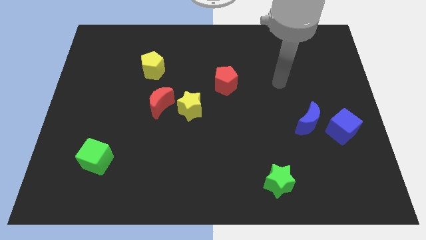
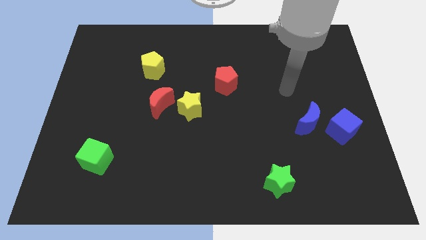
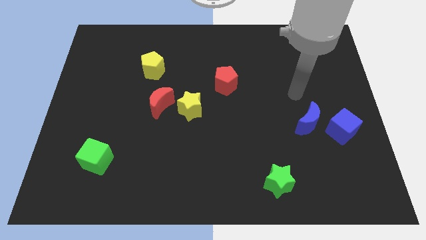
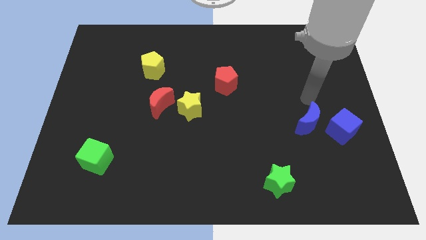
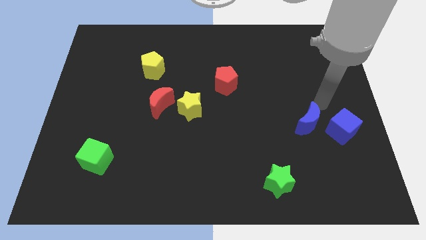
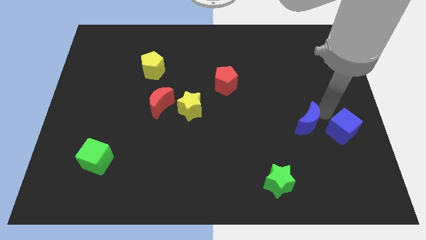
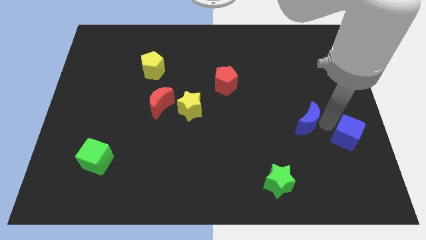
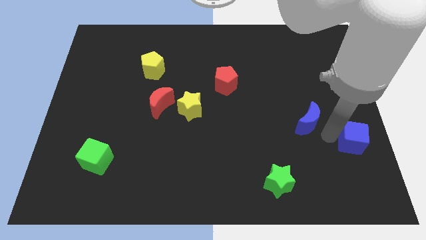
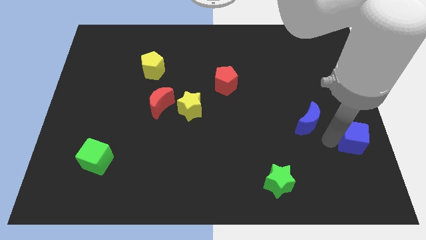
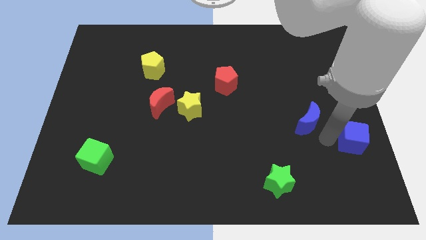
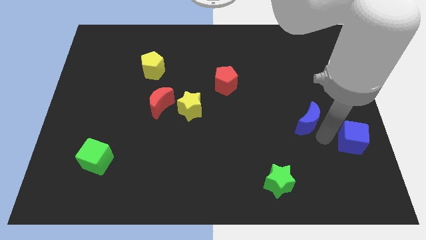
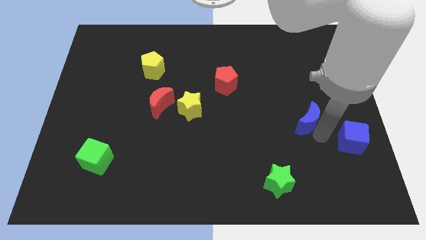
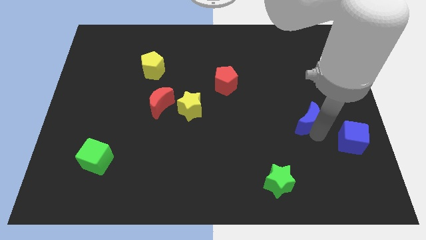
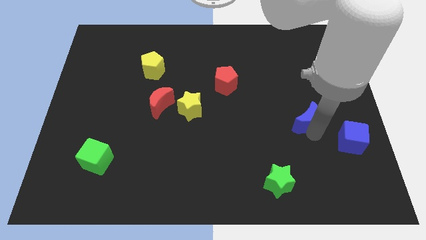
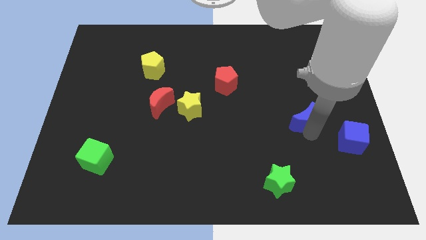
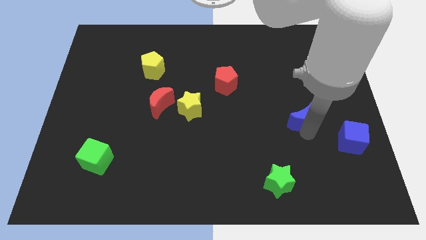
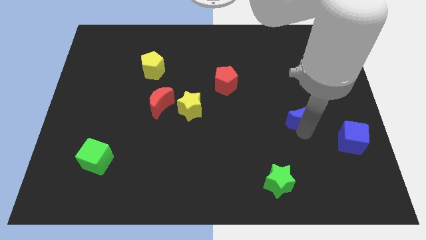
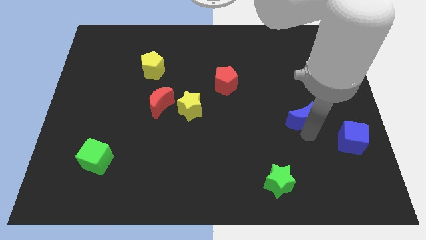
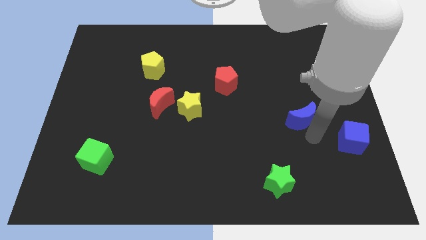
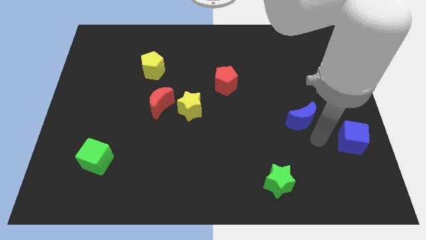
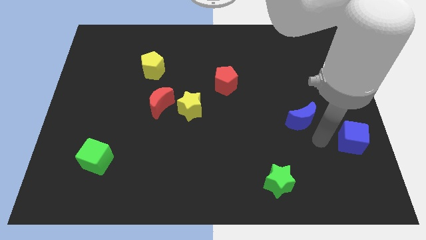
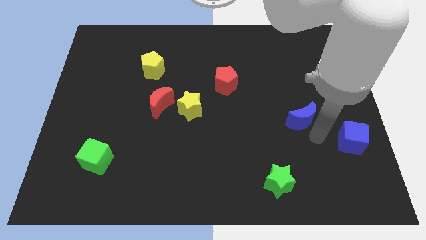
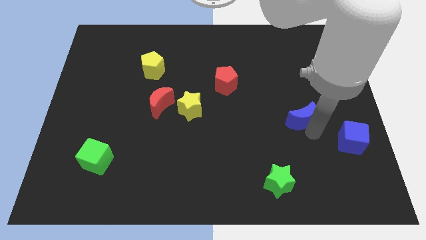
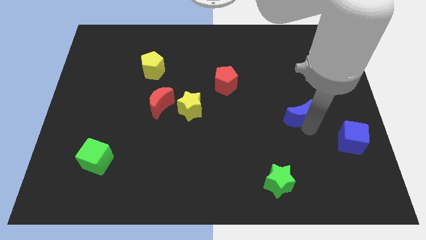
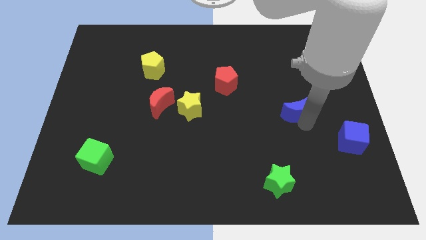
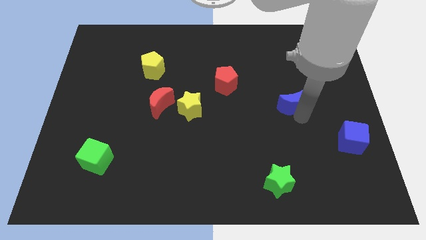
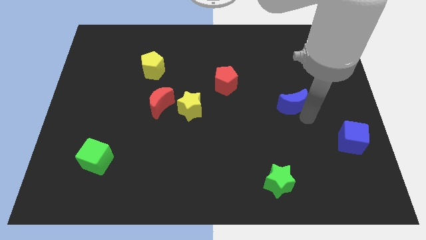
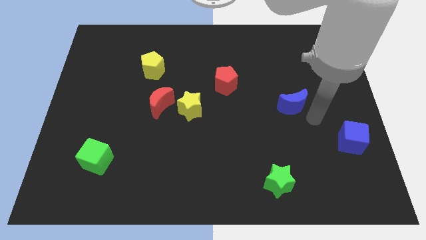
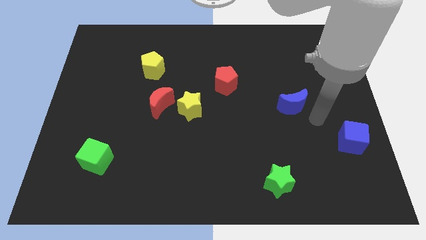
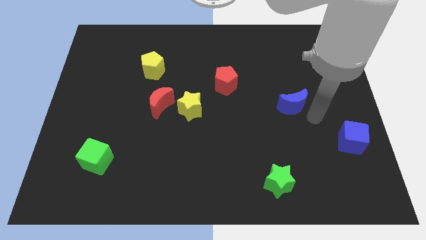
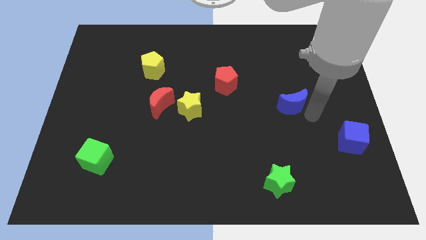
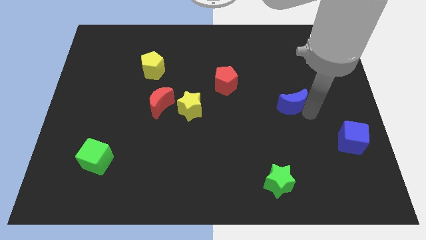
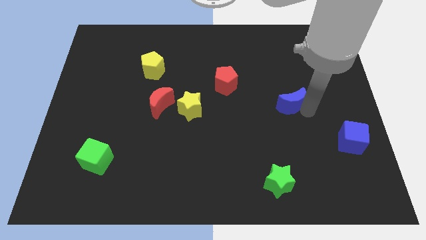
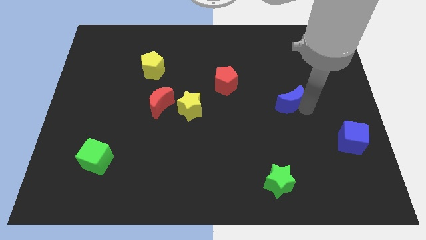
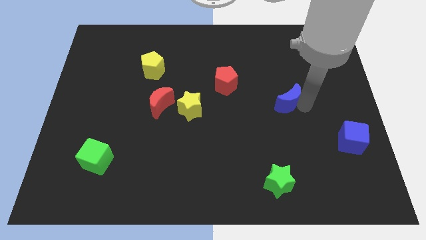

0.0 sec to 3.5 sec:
slide the blue moon somewhat diagonally upwards and to the left

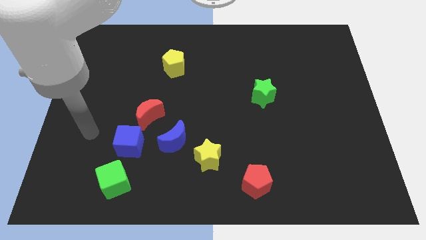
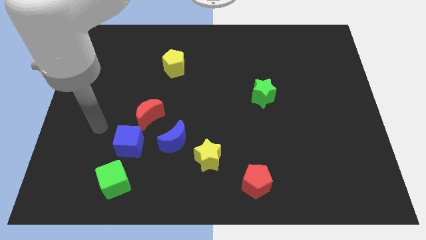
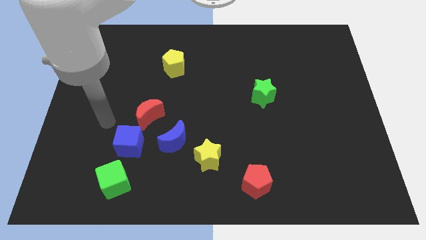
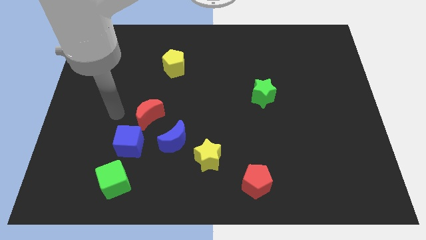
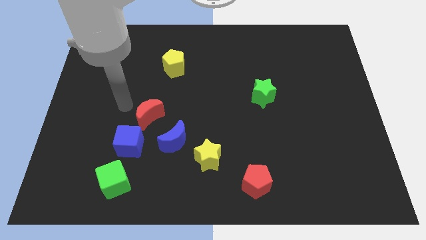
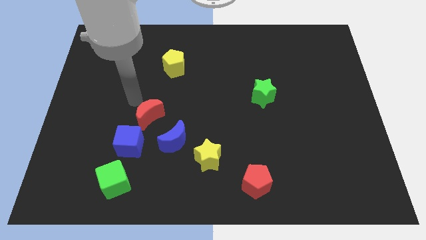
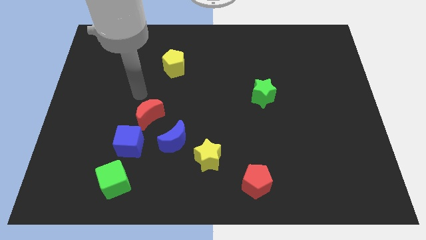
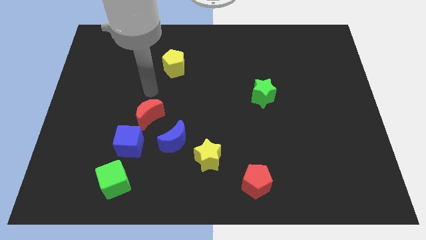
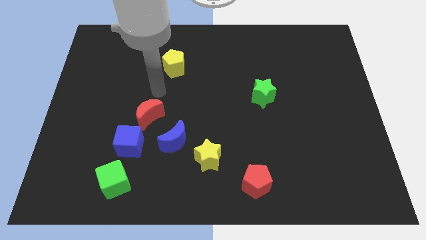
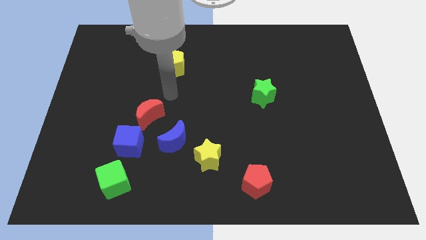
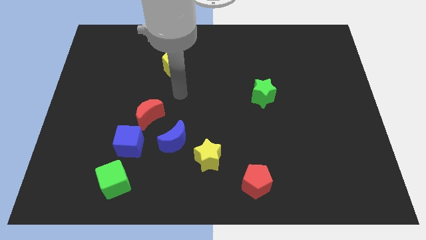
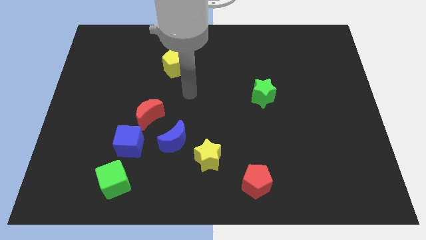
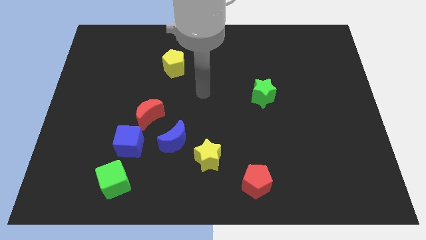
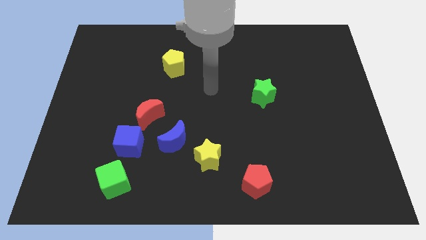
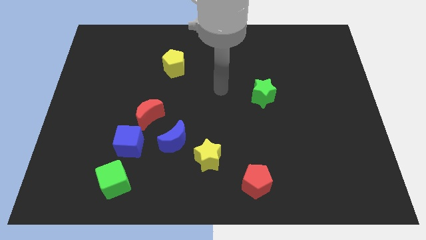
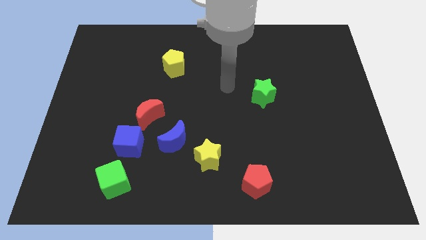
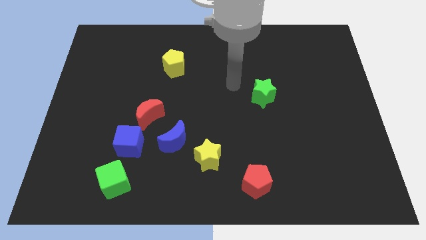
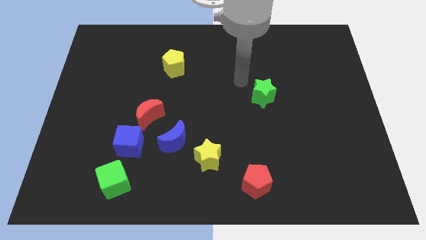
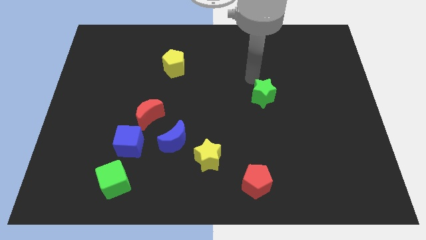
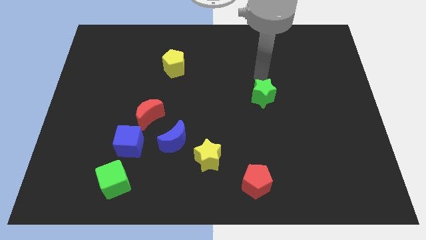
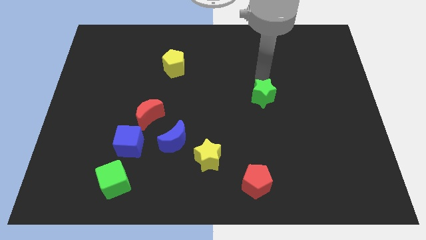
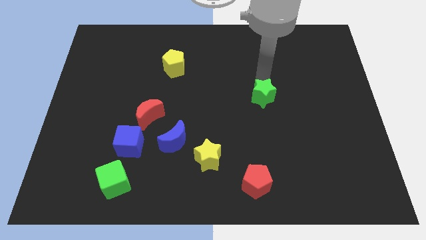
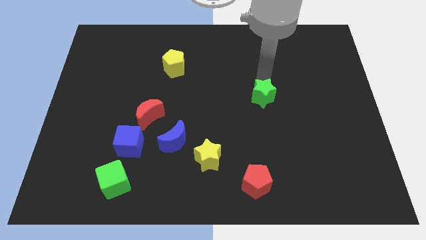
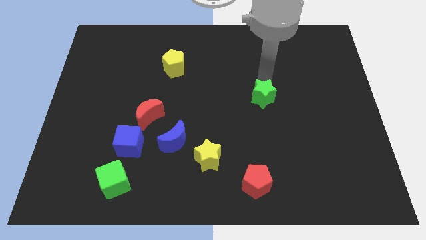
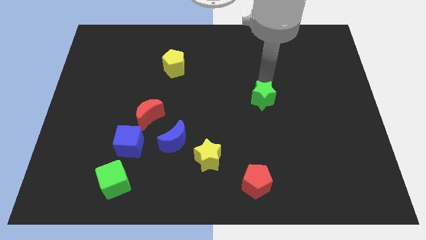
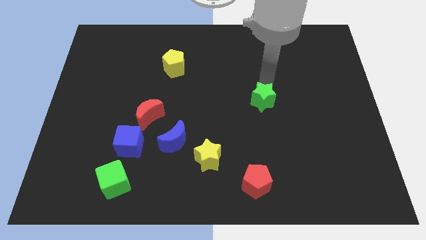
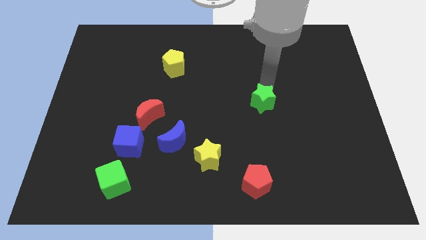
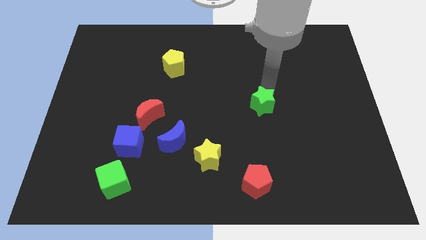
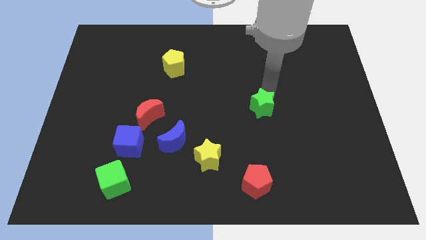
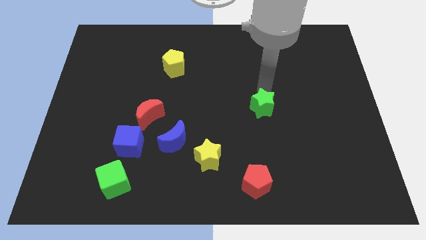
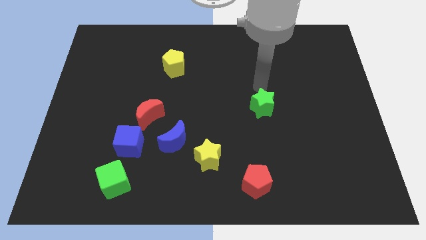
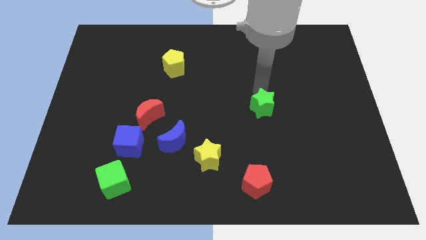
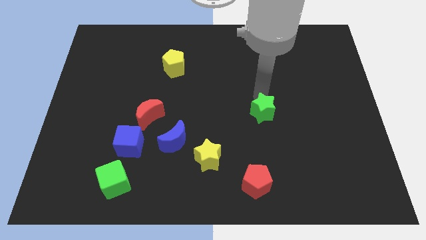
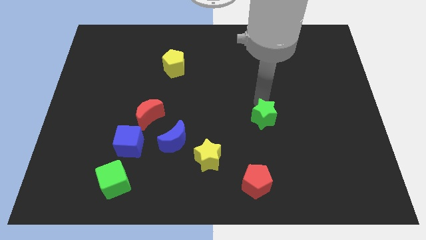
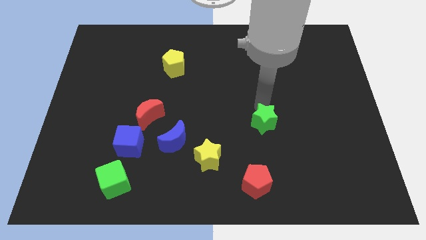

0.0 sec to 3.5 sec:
push the green star down somewhat

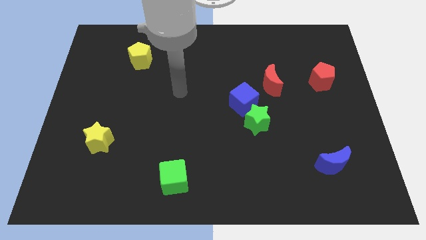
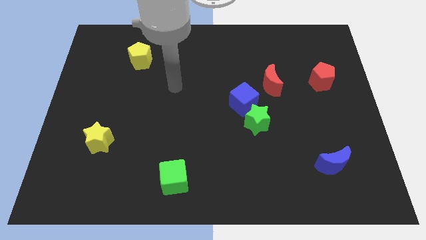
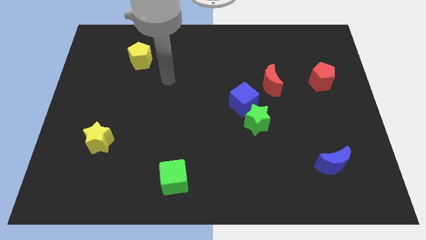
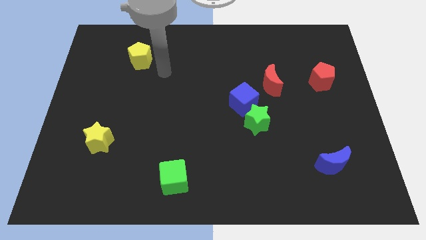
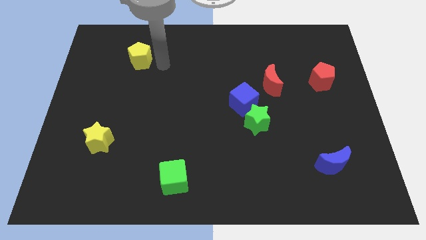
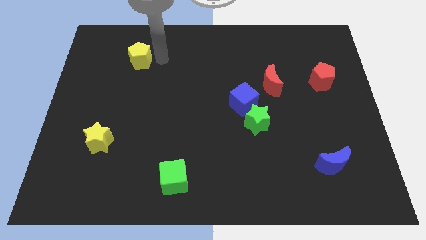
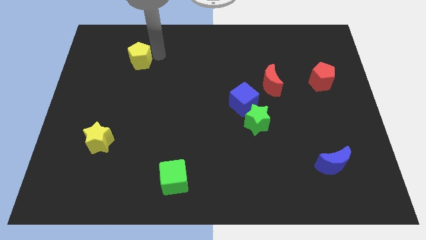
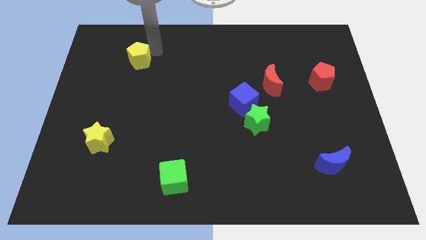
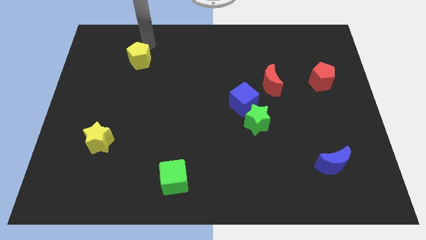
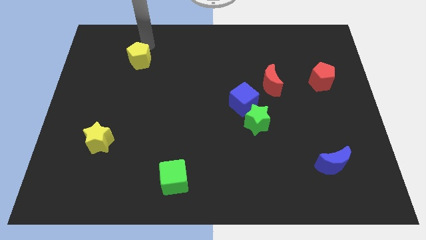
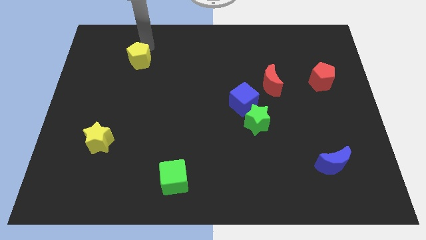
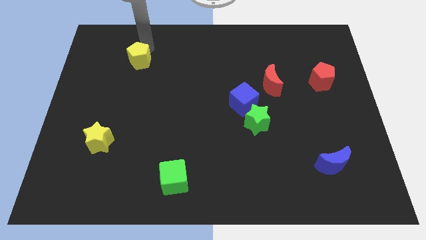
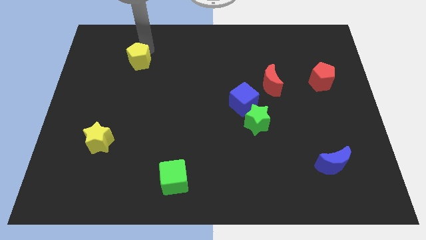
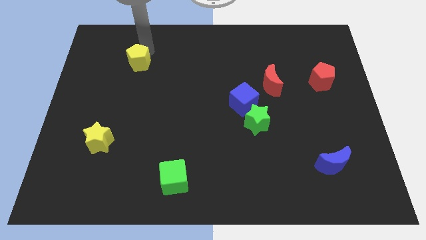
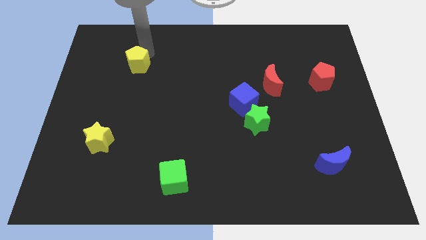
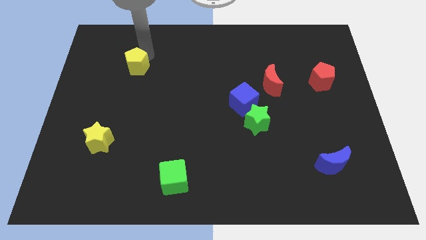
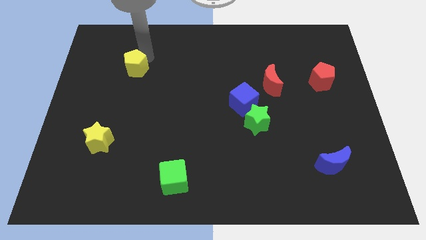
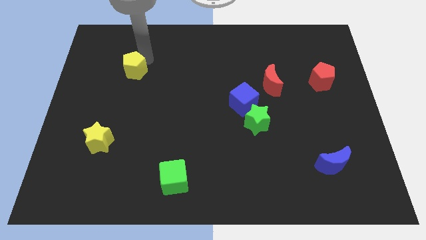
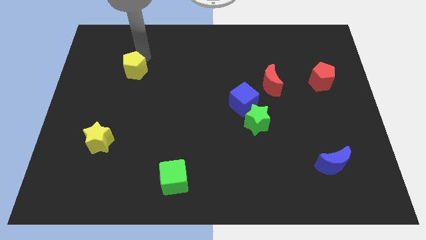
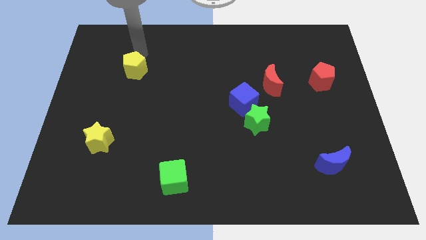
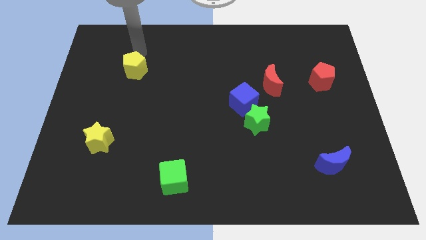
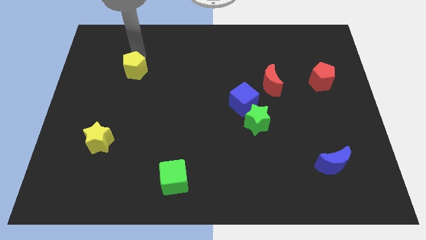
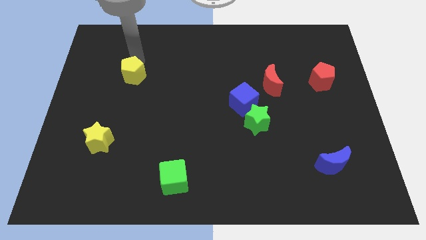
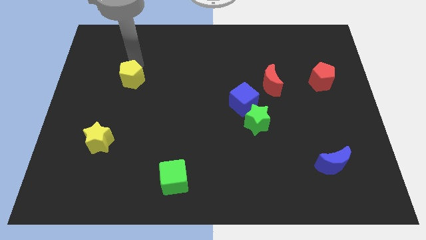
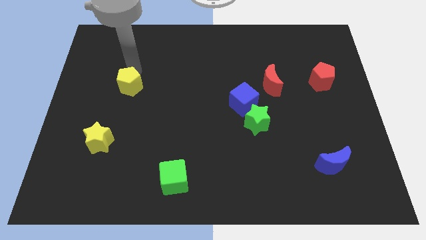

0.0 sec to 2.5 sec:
move the yellow pentagon a little bit down
